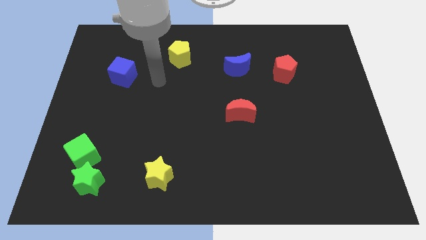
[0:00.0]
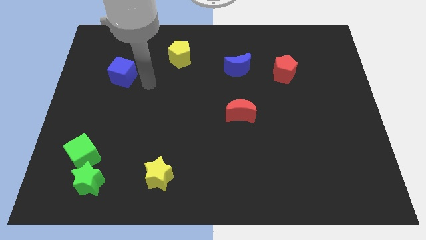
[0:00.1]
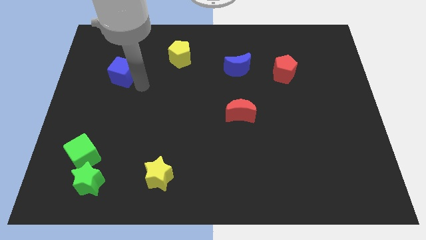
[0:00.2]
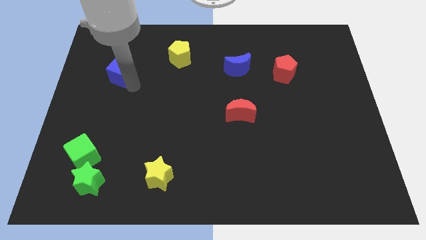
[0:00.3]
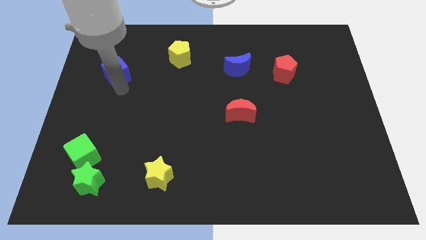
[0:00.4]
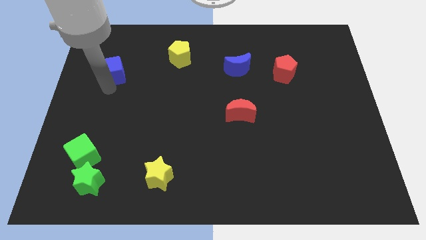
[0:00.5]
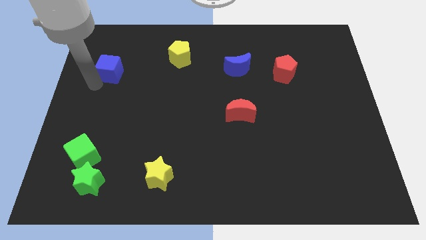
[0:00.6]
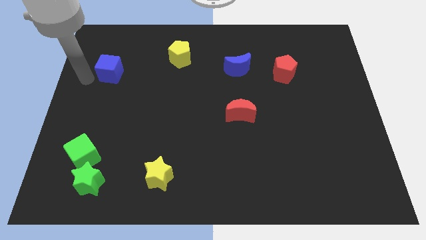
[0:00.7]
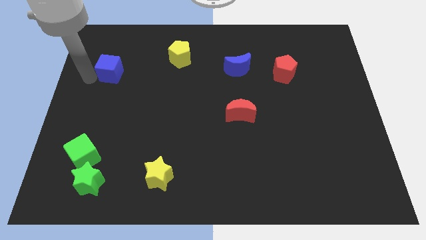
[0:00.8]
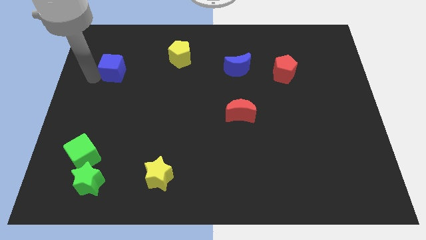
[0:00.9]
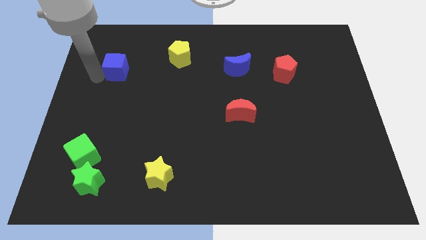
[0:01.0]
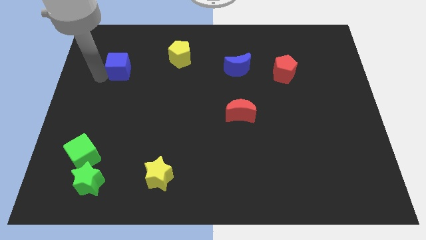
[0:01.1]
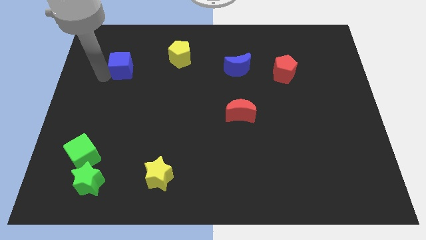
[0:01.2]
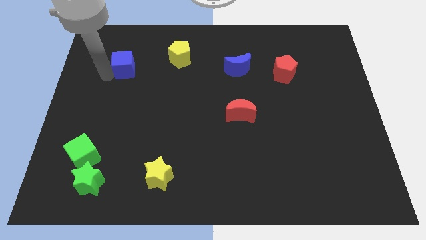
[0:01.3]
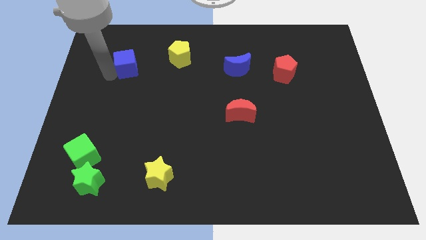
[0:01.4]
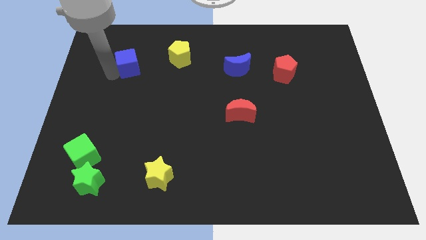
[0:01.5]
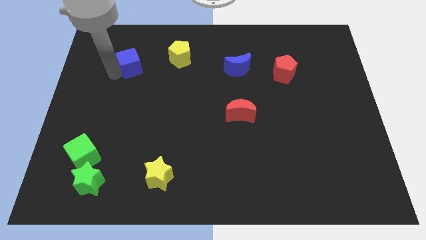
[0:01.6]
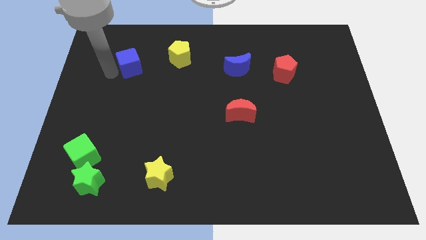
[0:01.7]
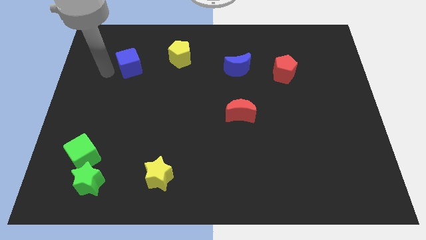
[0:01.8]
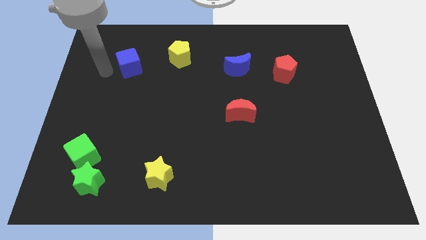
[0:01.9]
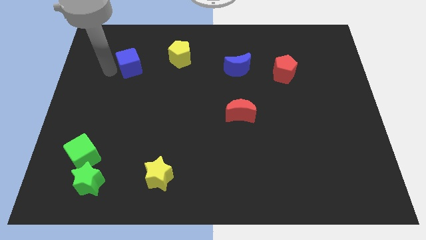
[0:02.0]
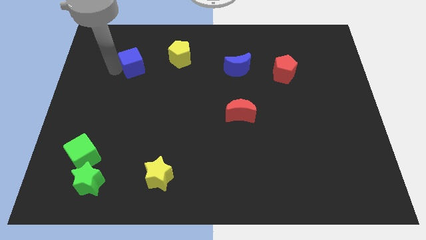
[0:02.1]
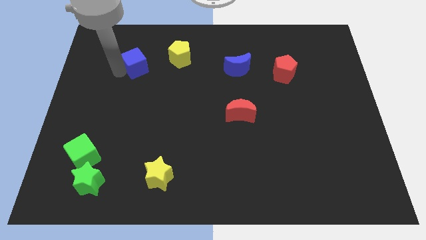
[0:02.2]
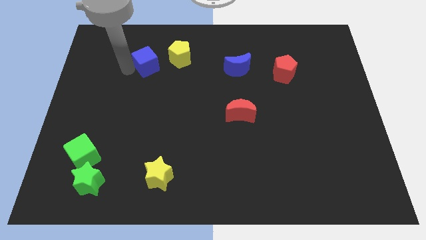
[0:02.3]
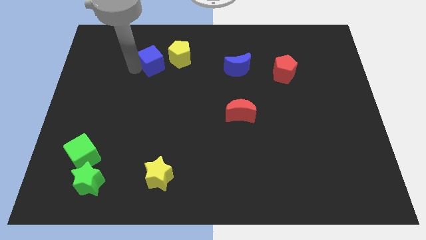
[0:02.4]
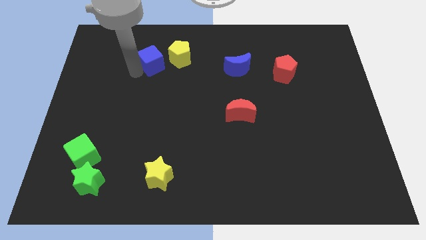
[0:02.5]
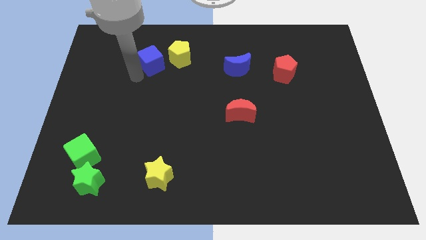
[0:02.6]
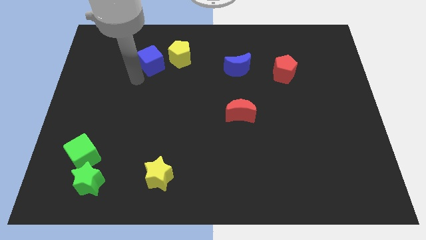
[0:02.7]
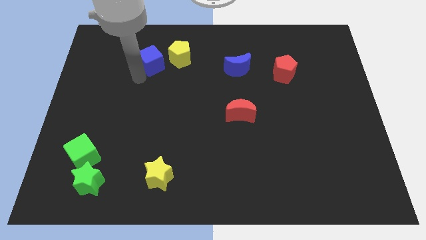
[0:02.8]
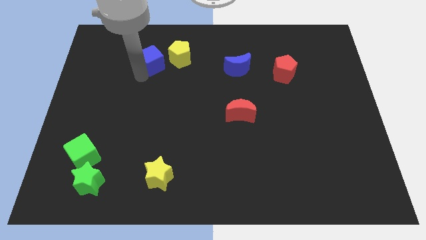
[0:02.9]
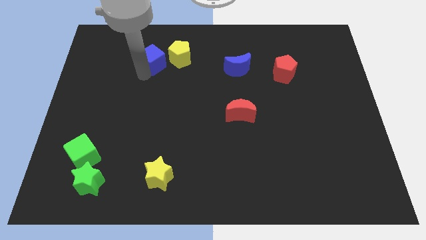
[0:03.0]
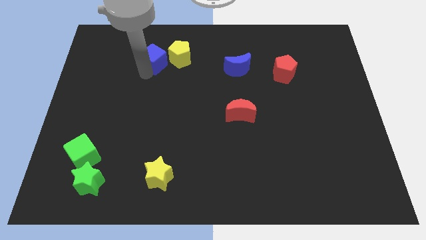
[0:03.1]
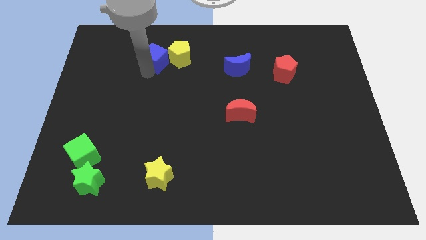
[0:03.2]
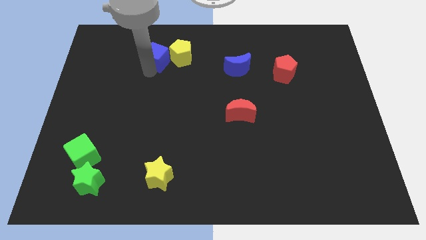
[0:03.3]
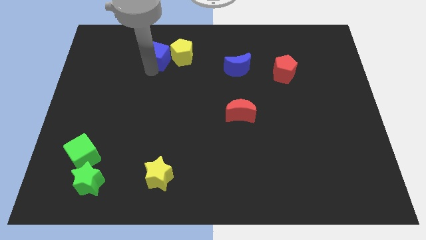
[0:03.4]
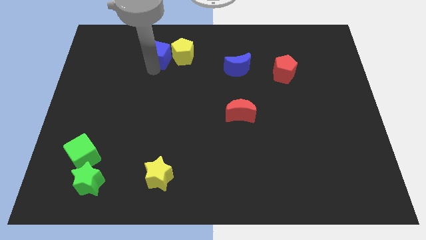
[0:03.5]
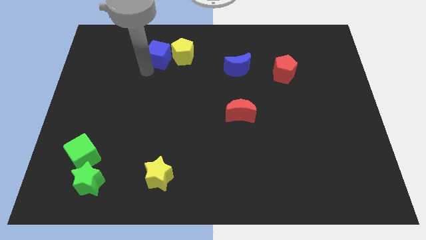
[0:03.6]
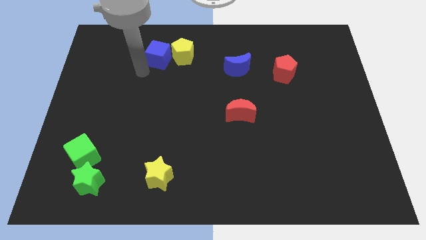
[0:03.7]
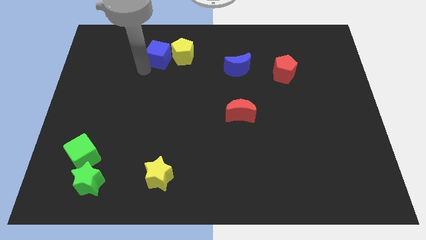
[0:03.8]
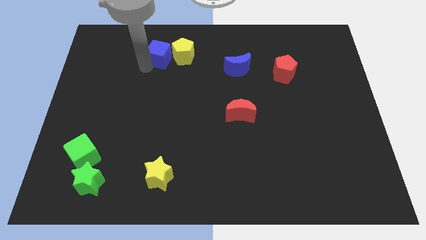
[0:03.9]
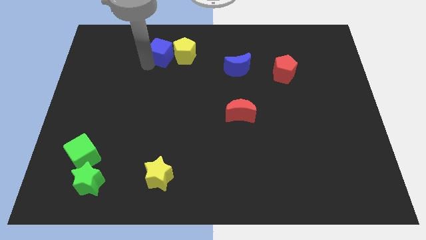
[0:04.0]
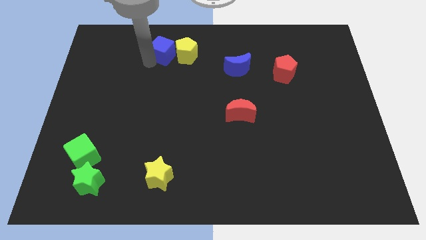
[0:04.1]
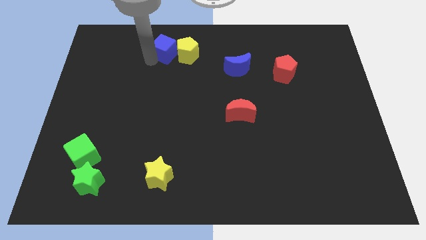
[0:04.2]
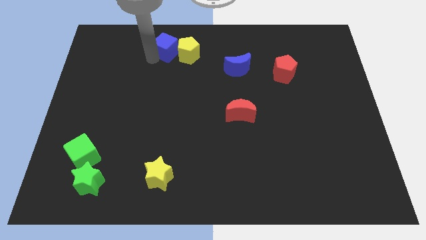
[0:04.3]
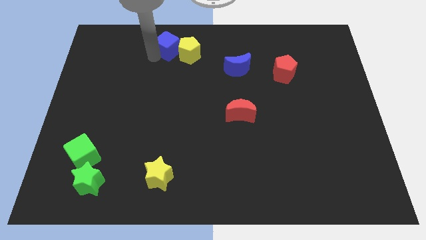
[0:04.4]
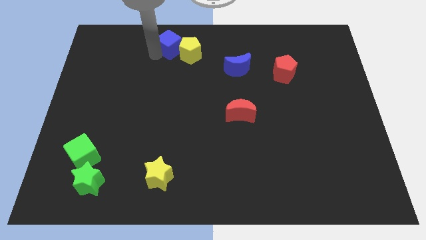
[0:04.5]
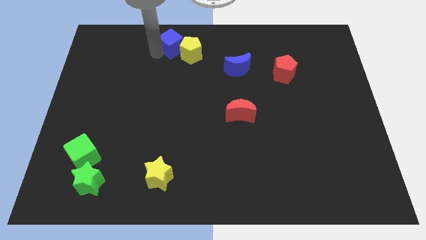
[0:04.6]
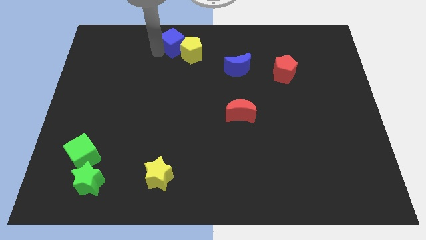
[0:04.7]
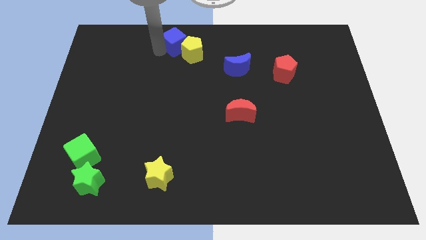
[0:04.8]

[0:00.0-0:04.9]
put the blue cube to the top side

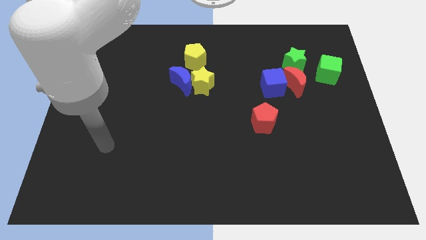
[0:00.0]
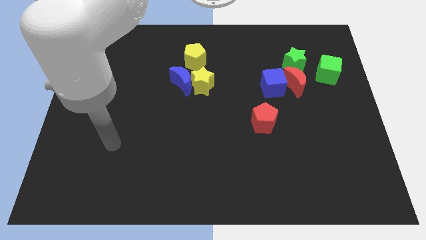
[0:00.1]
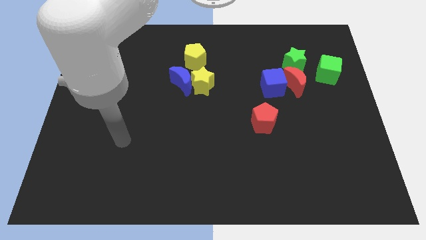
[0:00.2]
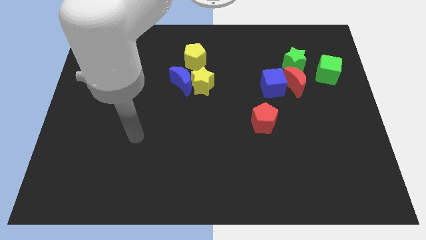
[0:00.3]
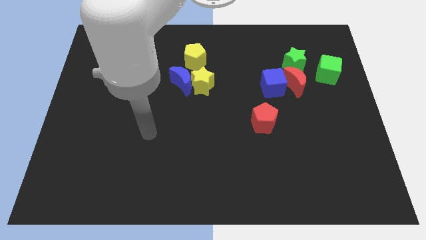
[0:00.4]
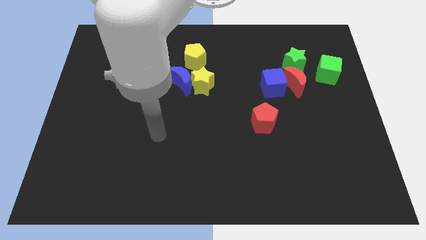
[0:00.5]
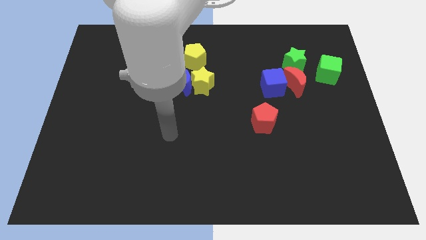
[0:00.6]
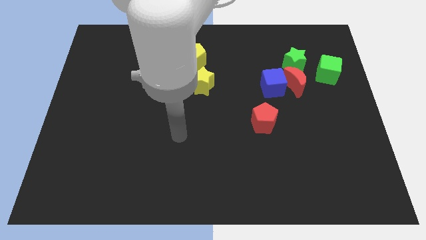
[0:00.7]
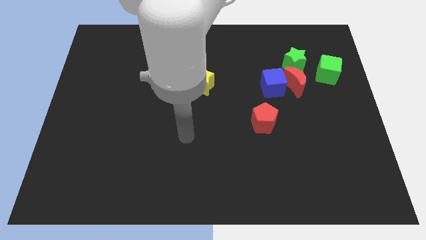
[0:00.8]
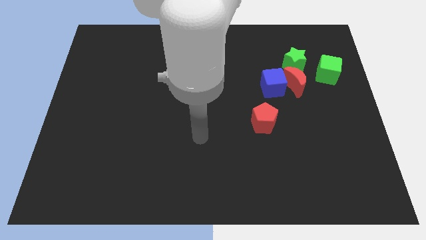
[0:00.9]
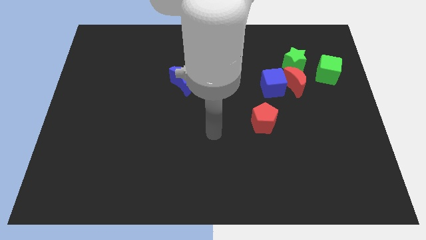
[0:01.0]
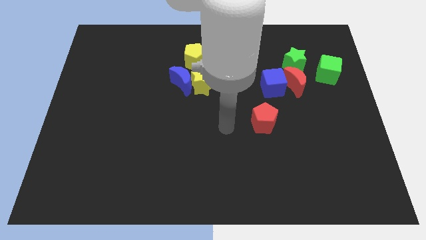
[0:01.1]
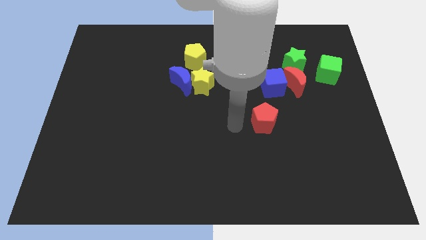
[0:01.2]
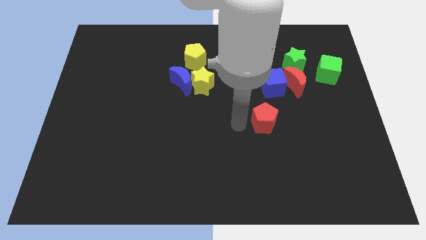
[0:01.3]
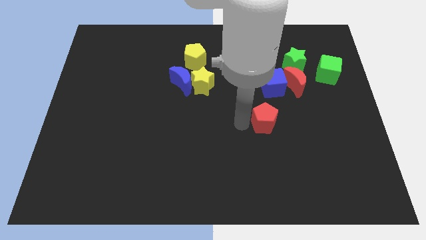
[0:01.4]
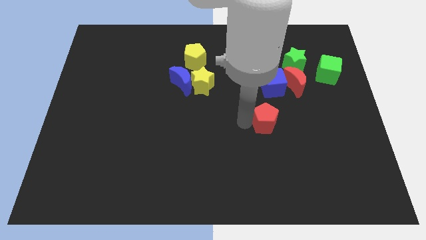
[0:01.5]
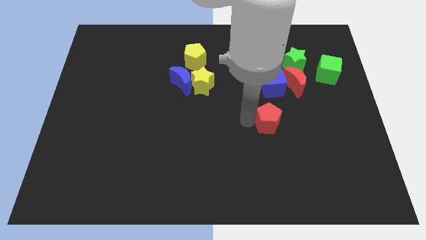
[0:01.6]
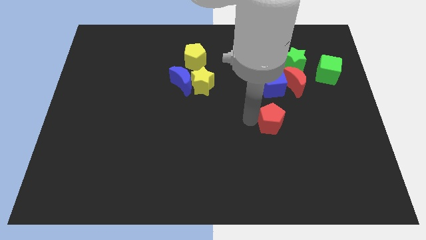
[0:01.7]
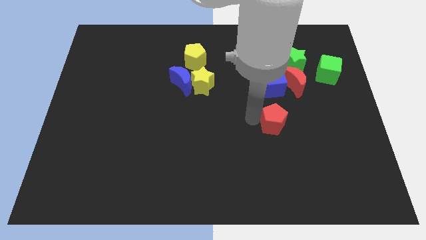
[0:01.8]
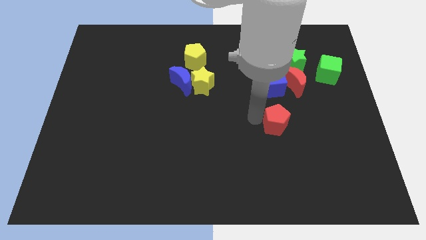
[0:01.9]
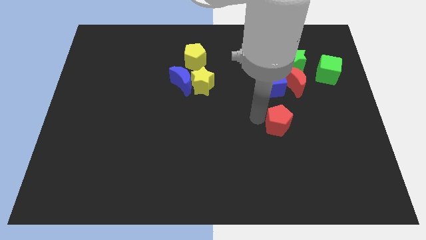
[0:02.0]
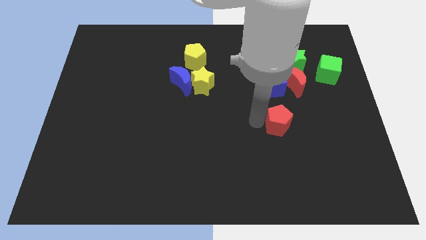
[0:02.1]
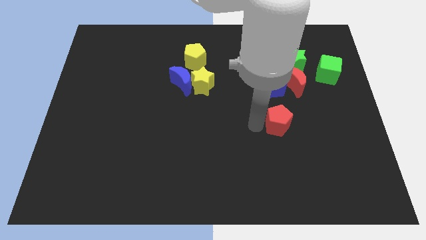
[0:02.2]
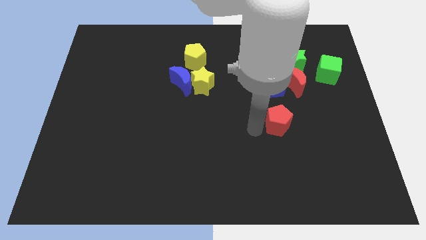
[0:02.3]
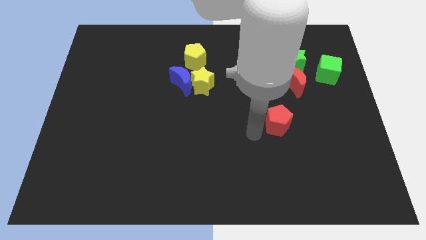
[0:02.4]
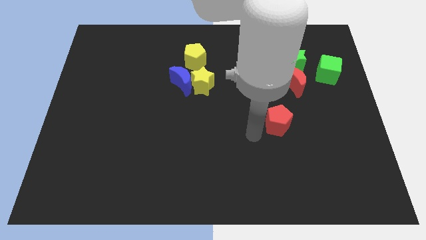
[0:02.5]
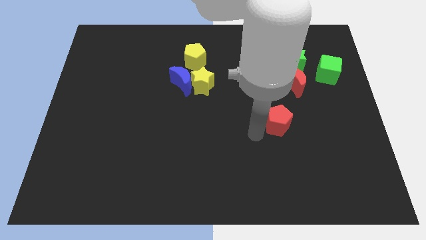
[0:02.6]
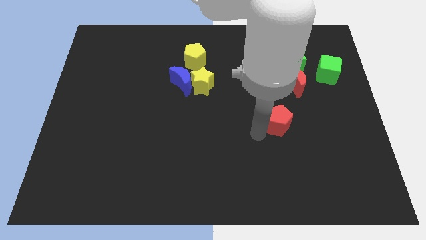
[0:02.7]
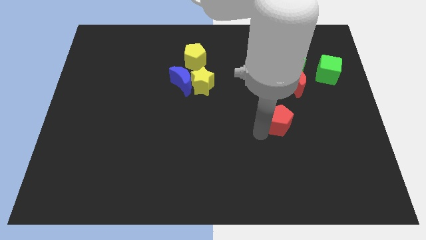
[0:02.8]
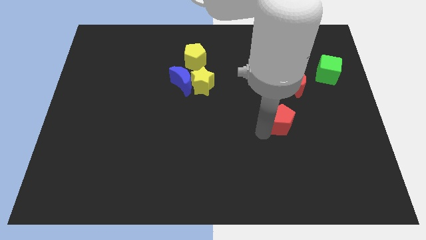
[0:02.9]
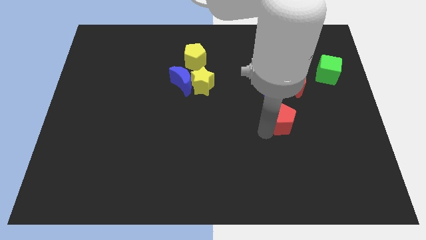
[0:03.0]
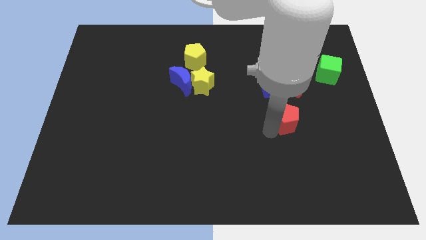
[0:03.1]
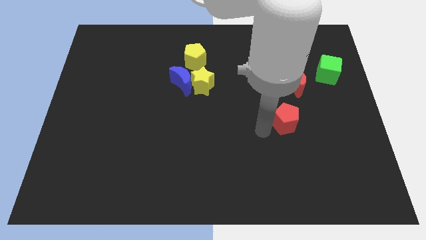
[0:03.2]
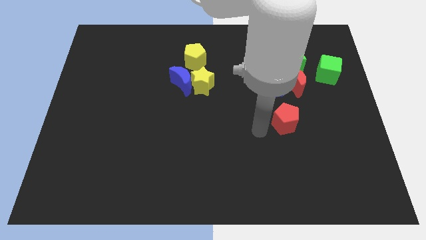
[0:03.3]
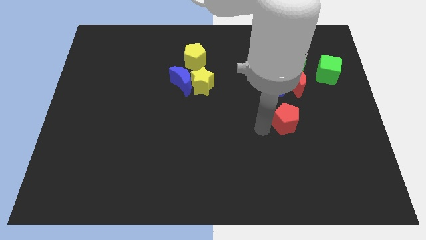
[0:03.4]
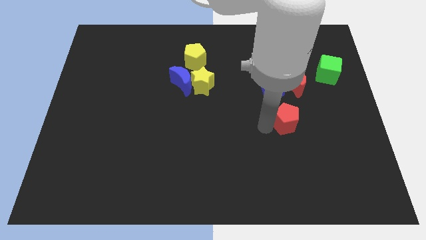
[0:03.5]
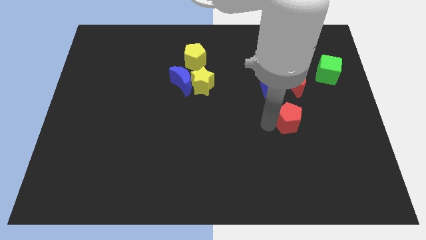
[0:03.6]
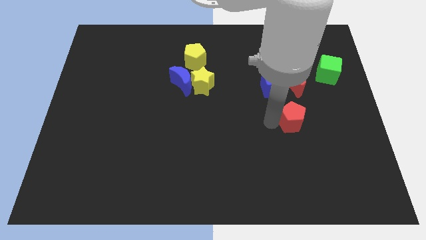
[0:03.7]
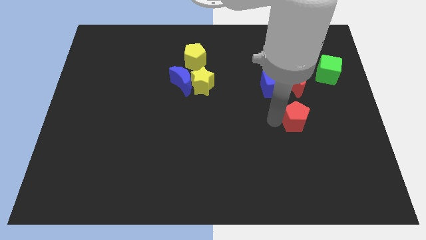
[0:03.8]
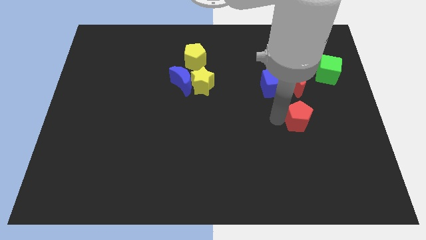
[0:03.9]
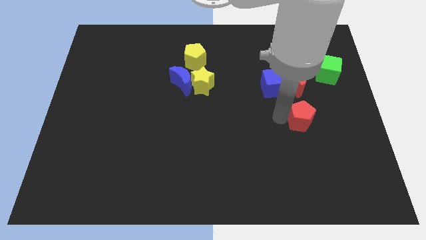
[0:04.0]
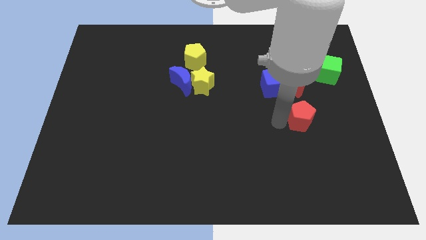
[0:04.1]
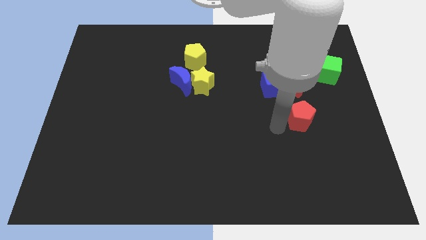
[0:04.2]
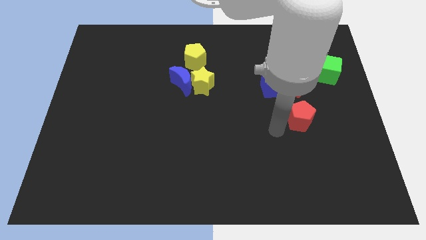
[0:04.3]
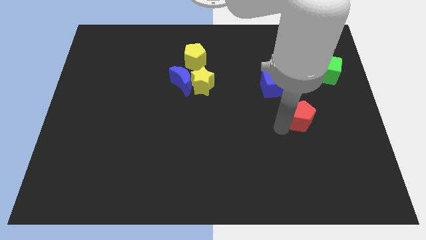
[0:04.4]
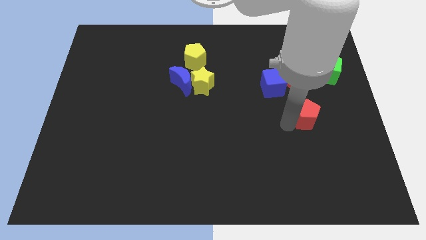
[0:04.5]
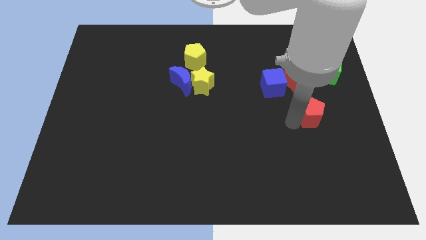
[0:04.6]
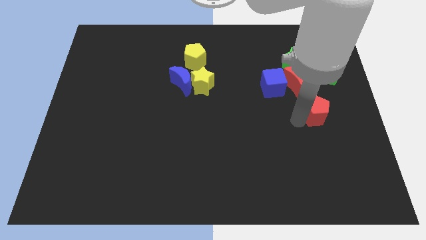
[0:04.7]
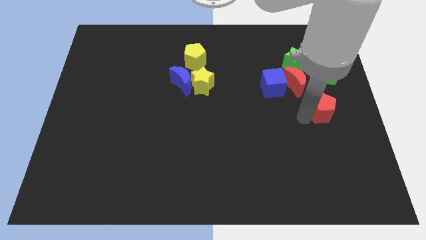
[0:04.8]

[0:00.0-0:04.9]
move the red pentagon to the center right
